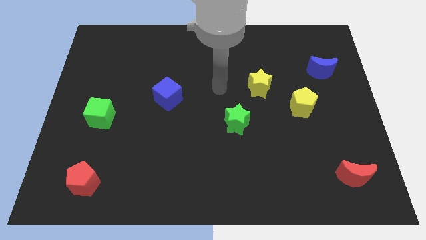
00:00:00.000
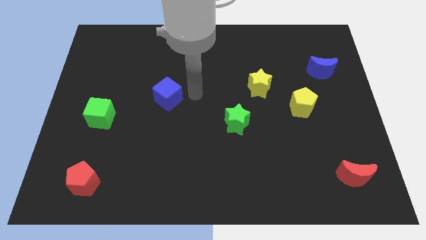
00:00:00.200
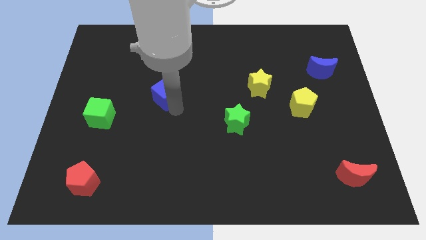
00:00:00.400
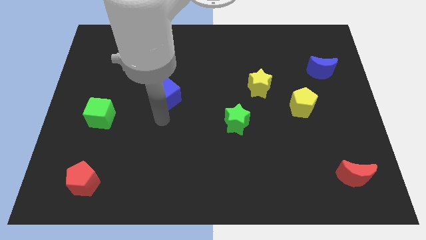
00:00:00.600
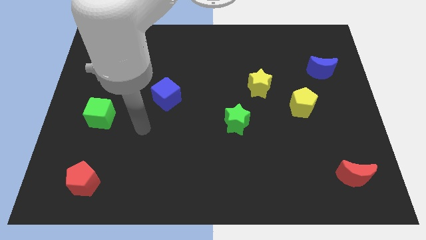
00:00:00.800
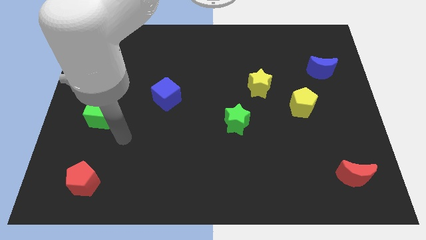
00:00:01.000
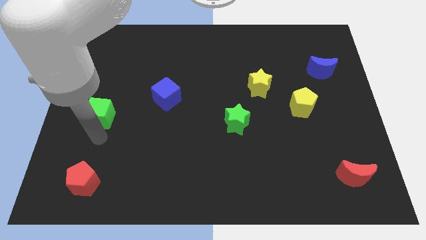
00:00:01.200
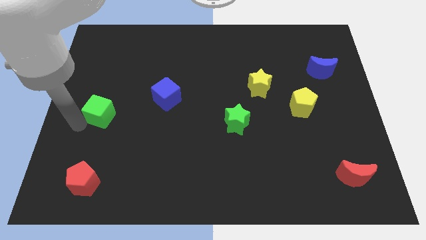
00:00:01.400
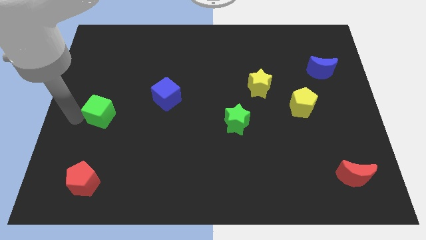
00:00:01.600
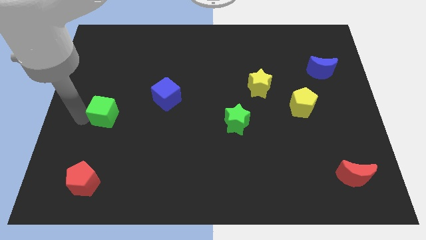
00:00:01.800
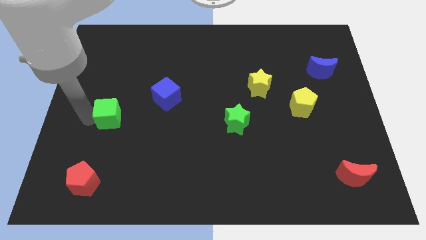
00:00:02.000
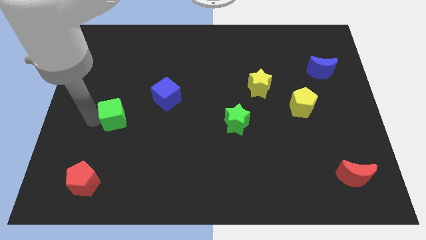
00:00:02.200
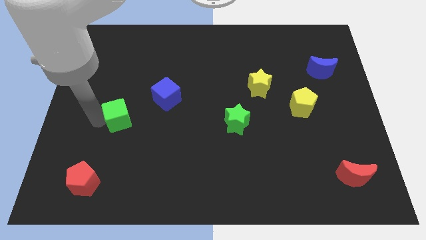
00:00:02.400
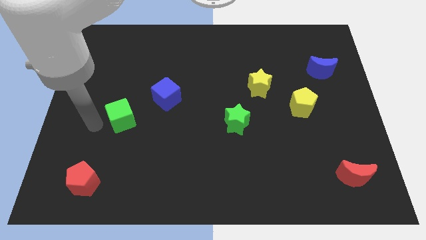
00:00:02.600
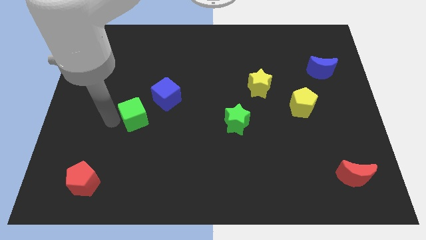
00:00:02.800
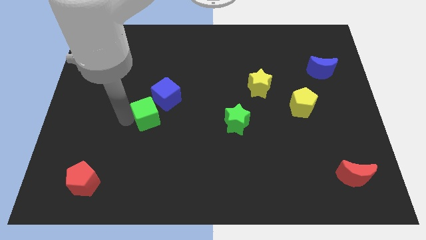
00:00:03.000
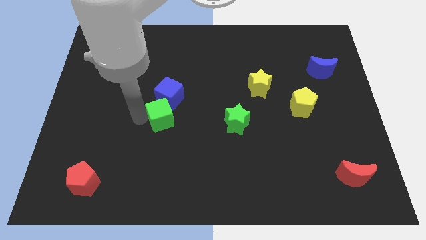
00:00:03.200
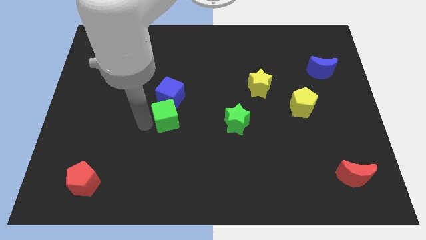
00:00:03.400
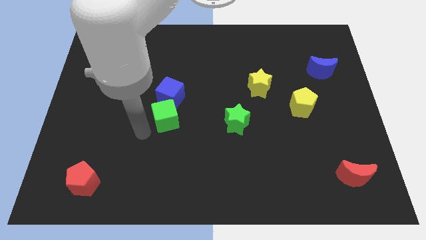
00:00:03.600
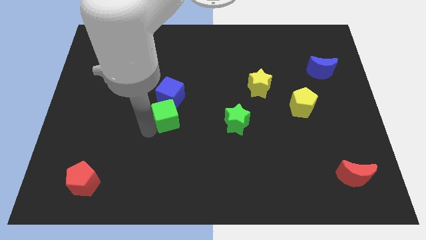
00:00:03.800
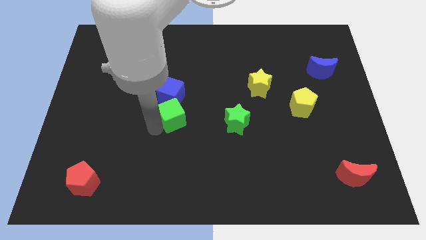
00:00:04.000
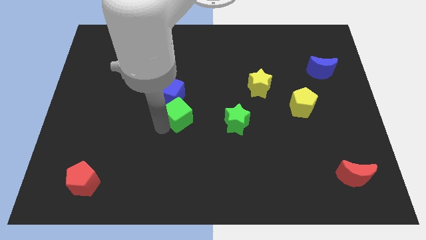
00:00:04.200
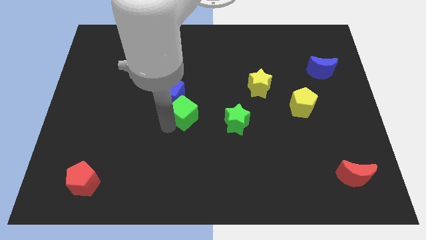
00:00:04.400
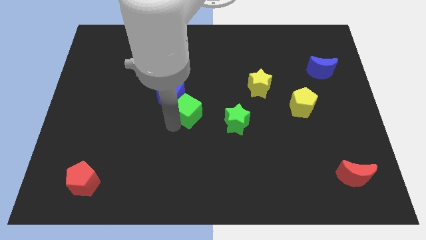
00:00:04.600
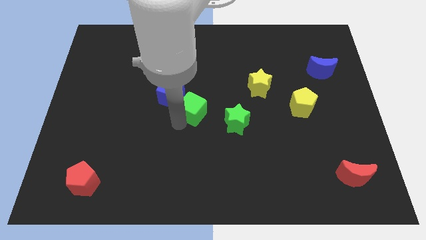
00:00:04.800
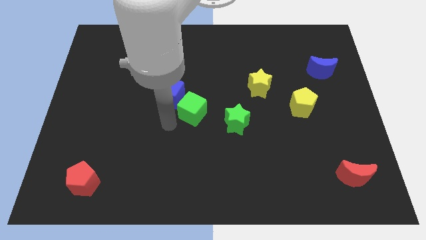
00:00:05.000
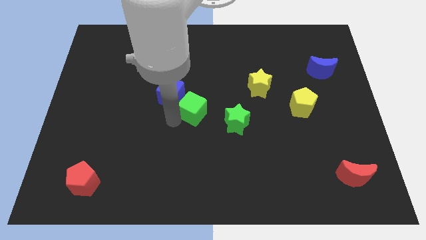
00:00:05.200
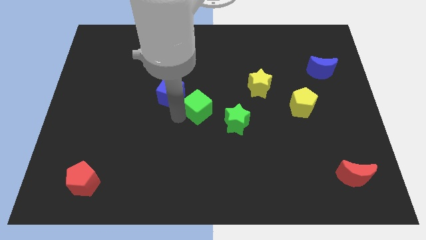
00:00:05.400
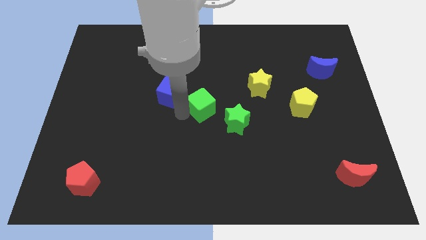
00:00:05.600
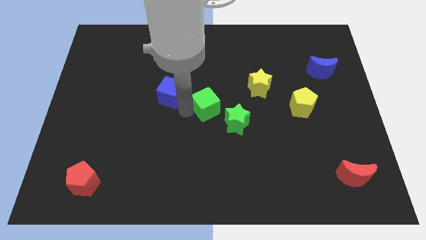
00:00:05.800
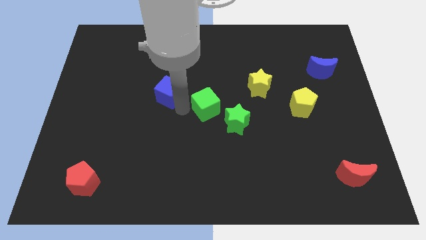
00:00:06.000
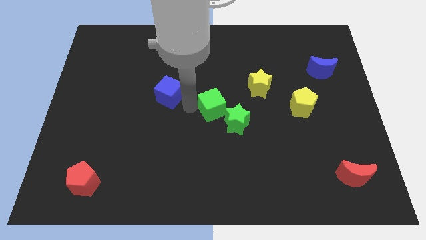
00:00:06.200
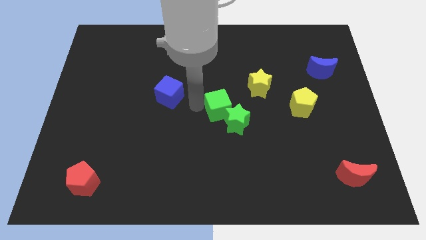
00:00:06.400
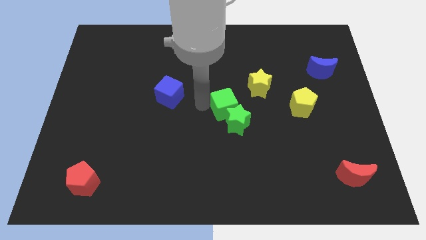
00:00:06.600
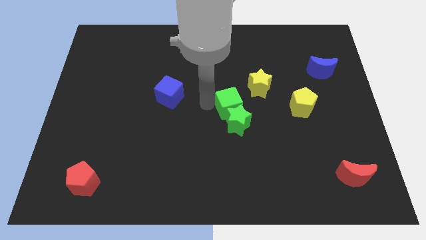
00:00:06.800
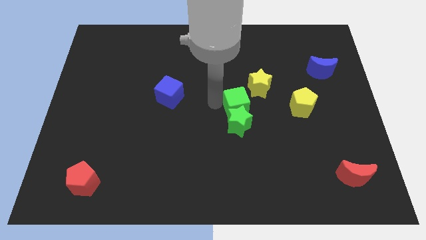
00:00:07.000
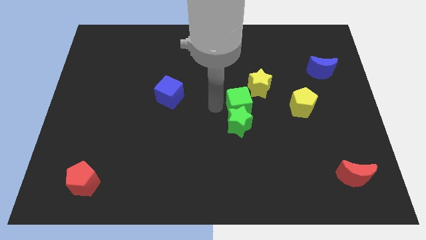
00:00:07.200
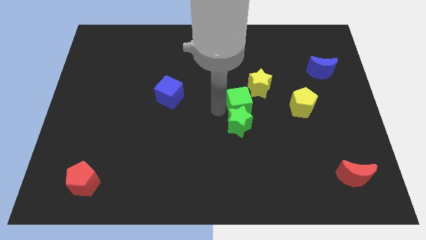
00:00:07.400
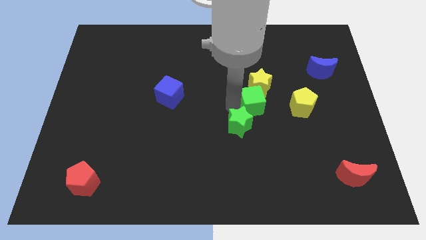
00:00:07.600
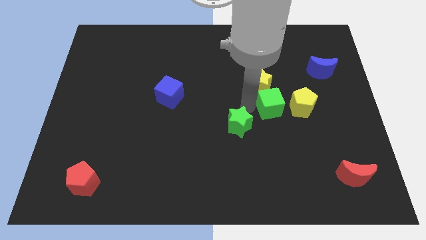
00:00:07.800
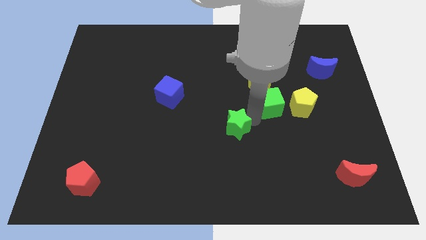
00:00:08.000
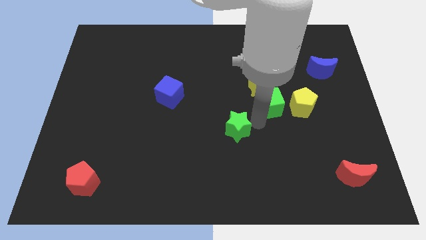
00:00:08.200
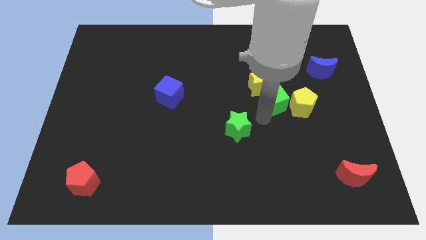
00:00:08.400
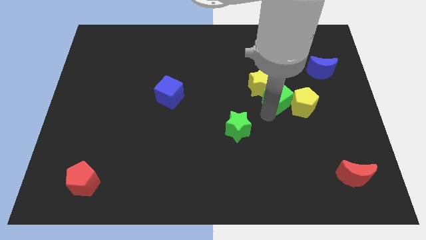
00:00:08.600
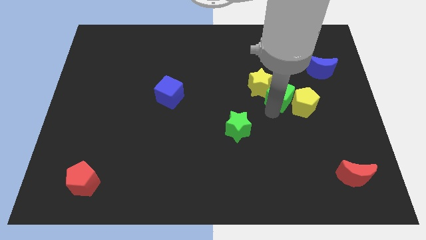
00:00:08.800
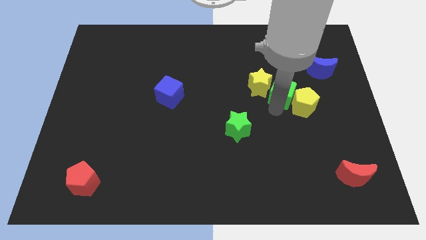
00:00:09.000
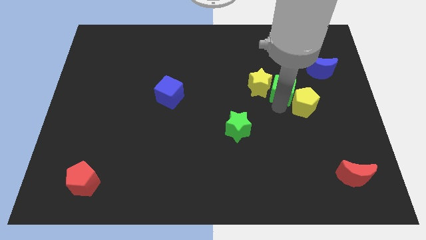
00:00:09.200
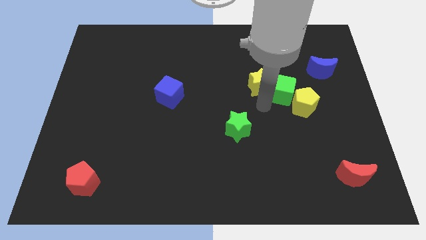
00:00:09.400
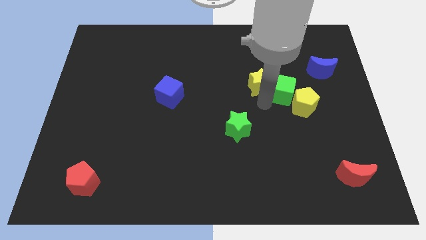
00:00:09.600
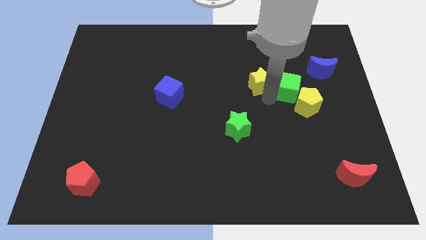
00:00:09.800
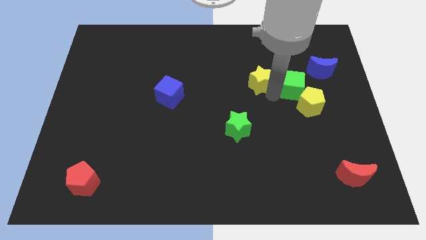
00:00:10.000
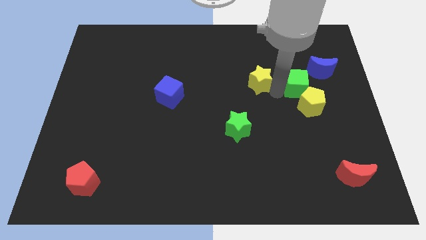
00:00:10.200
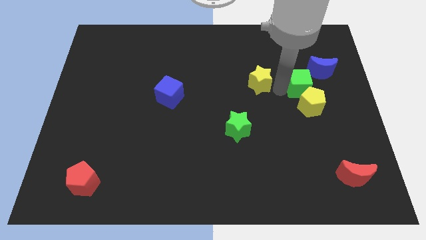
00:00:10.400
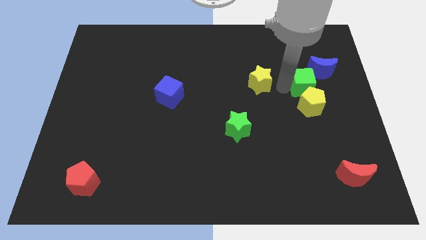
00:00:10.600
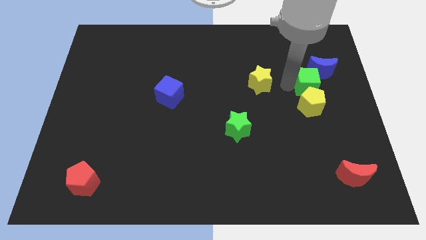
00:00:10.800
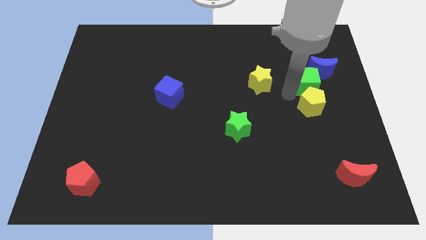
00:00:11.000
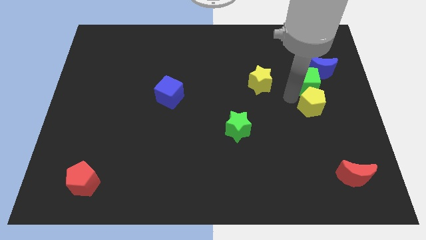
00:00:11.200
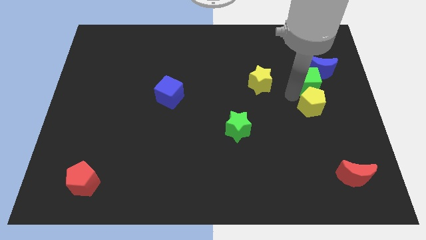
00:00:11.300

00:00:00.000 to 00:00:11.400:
slide the green cube close to the blue moon

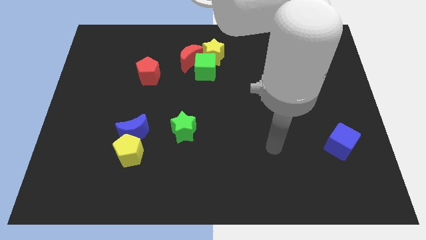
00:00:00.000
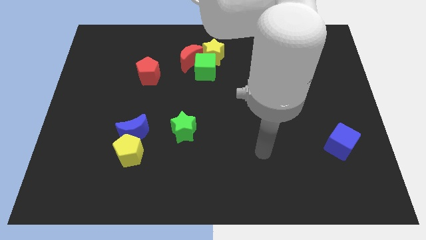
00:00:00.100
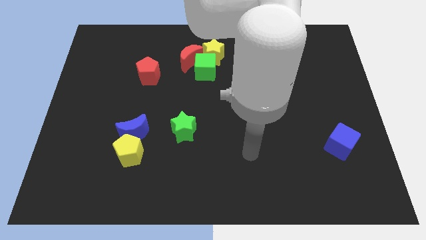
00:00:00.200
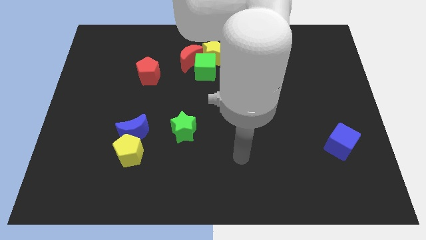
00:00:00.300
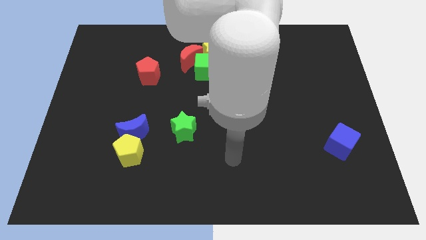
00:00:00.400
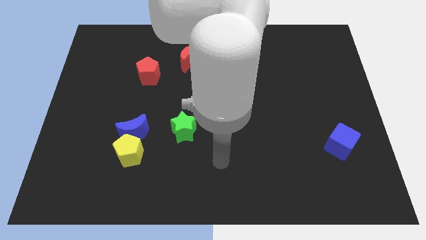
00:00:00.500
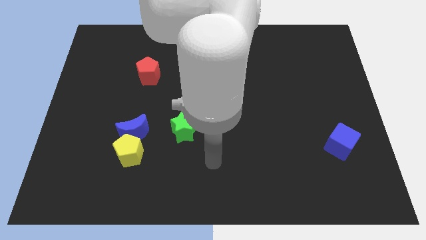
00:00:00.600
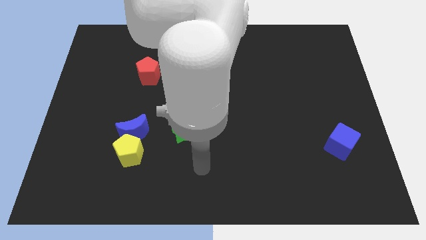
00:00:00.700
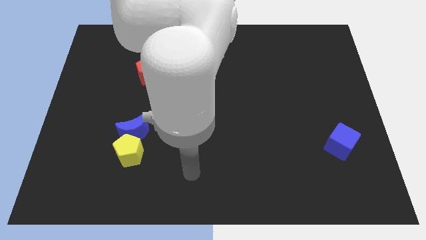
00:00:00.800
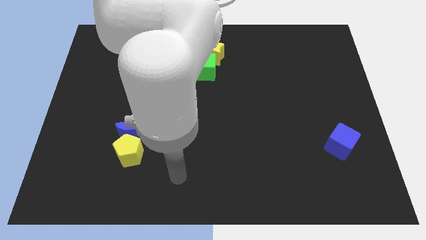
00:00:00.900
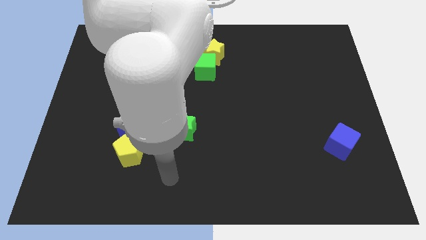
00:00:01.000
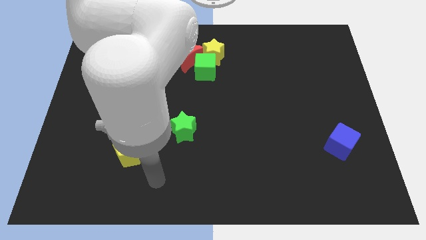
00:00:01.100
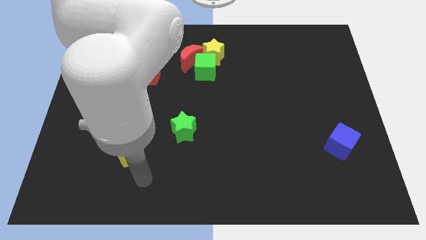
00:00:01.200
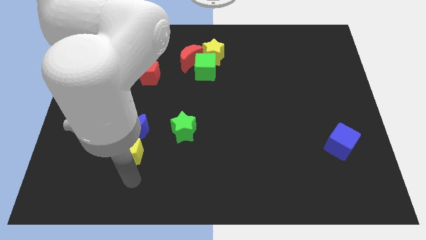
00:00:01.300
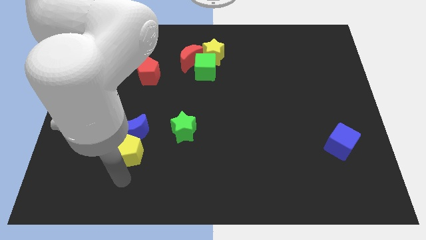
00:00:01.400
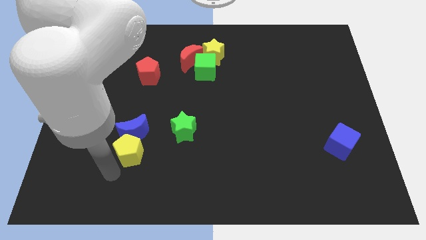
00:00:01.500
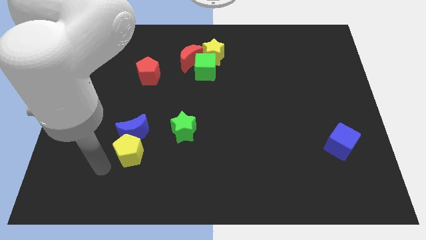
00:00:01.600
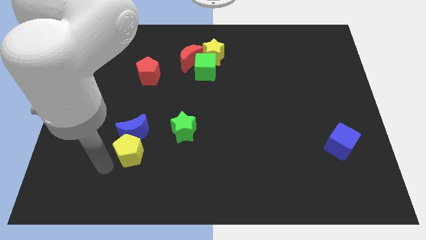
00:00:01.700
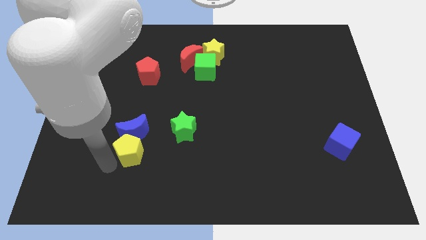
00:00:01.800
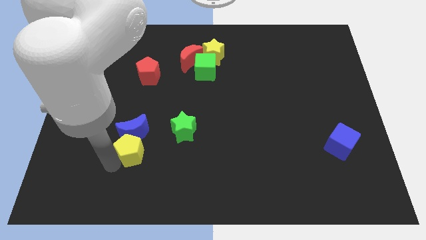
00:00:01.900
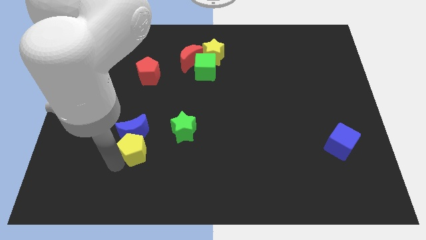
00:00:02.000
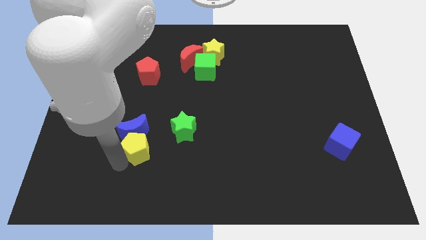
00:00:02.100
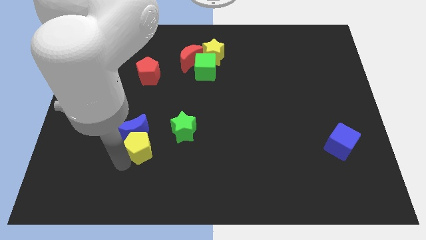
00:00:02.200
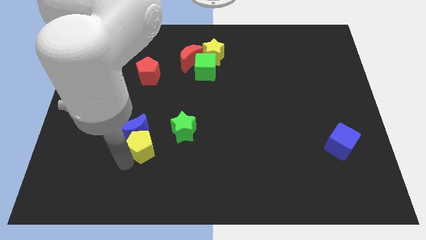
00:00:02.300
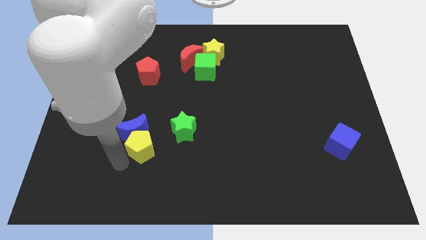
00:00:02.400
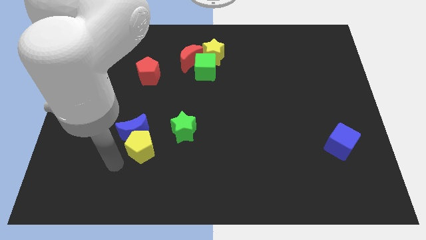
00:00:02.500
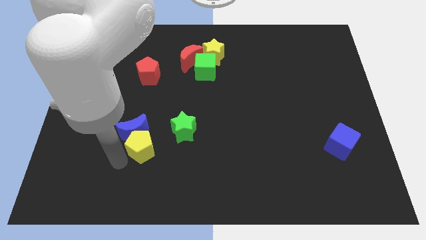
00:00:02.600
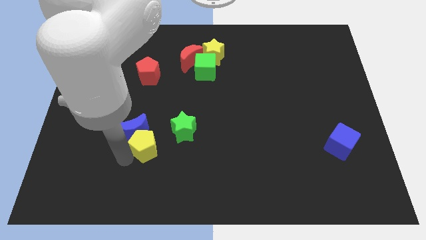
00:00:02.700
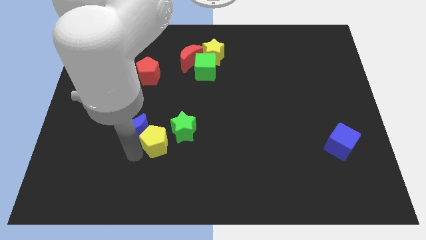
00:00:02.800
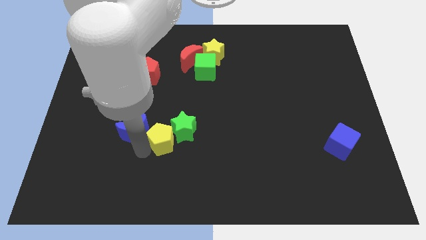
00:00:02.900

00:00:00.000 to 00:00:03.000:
push the yellow pentagon to the green star
